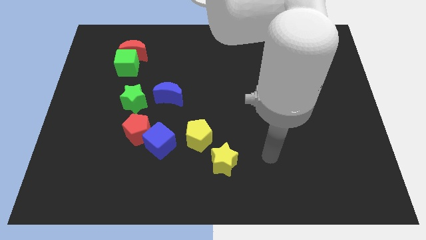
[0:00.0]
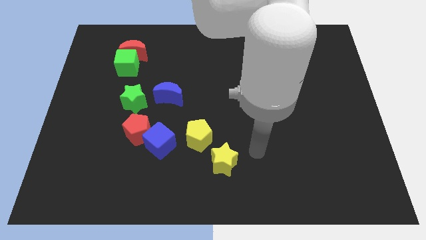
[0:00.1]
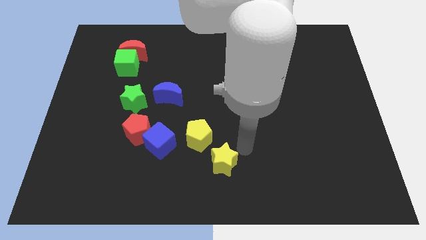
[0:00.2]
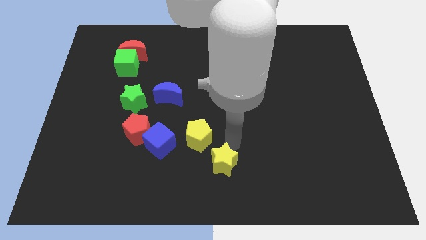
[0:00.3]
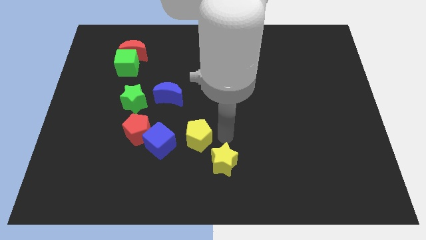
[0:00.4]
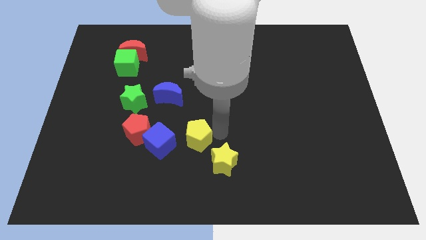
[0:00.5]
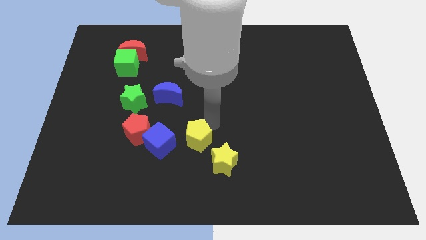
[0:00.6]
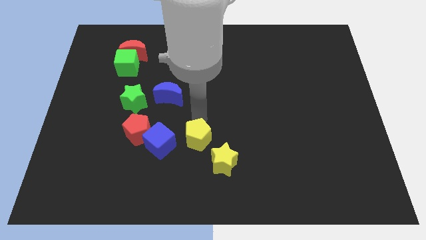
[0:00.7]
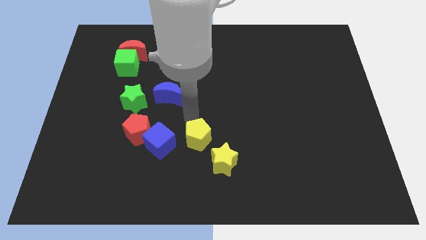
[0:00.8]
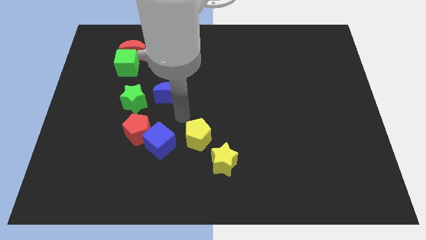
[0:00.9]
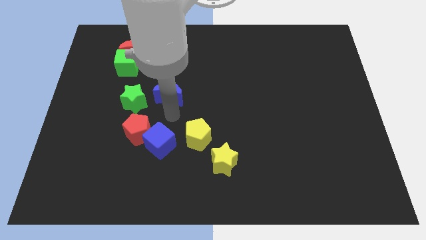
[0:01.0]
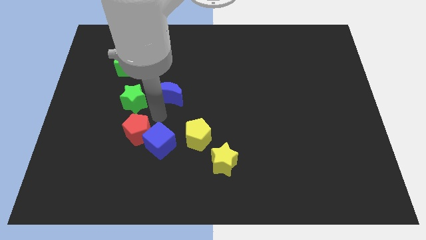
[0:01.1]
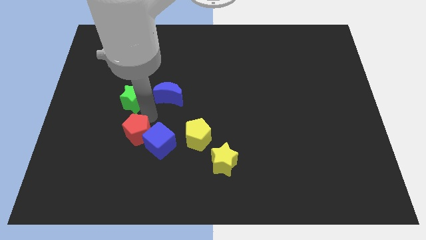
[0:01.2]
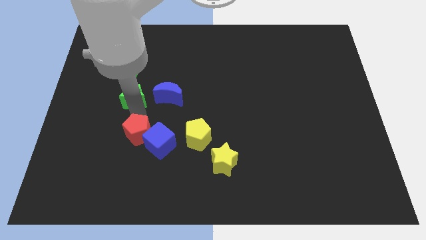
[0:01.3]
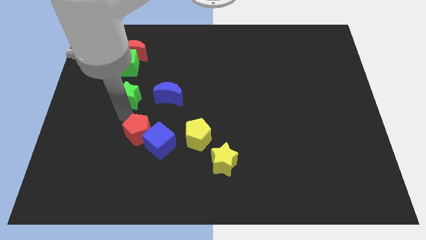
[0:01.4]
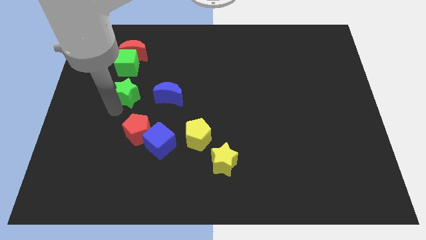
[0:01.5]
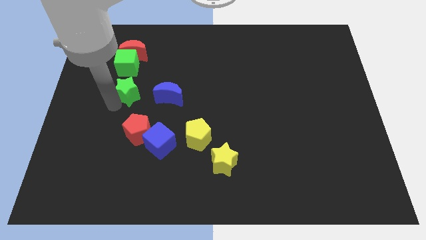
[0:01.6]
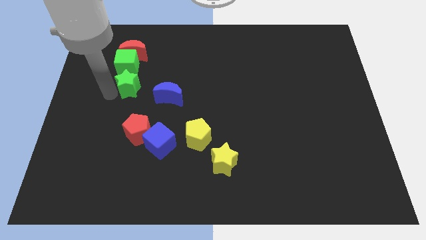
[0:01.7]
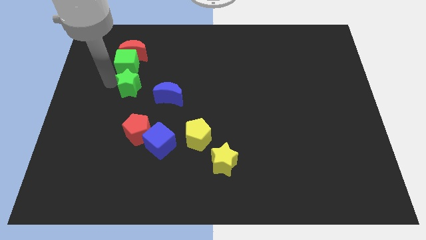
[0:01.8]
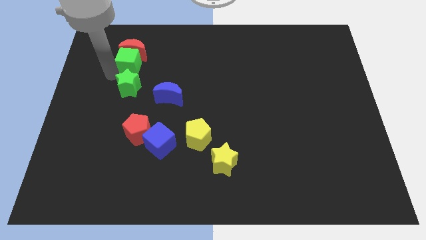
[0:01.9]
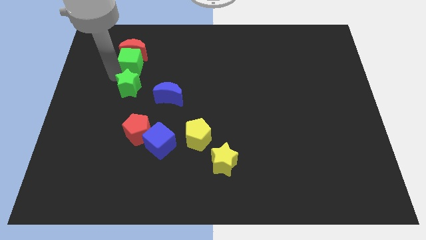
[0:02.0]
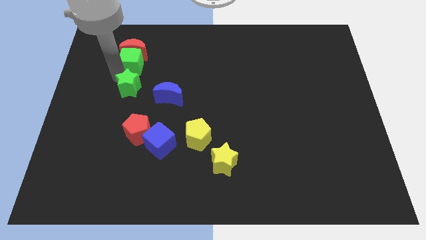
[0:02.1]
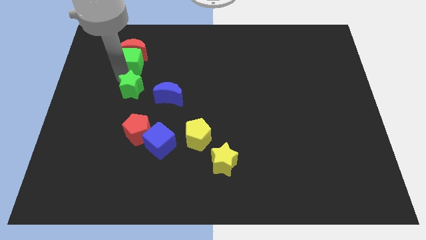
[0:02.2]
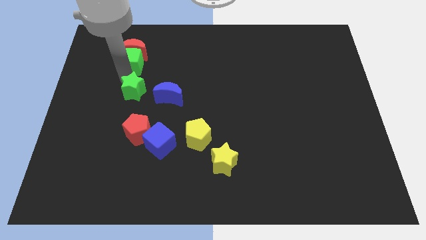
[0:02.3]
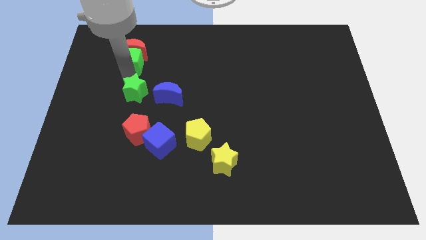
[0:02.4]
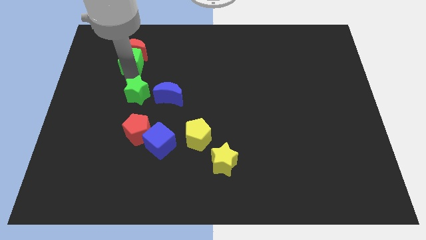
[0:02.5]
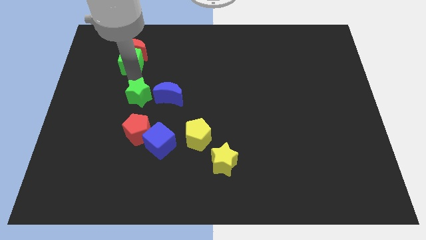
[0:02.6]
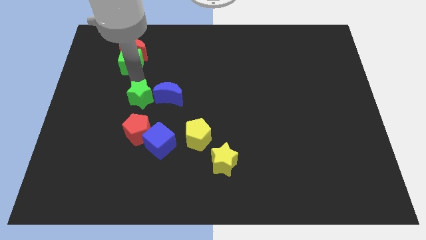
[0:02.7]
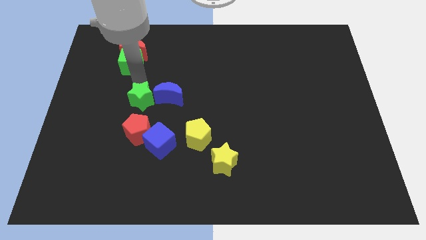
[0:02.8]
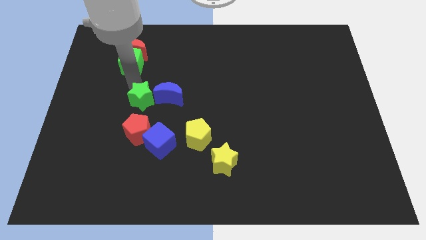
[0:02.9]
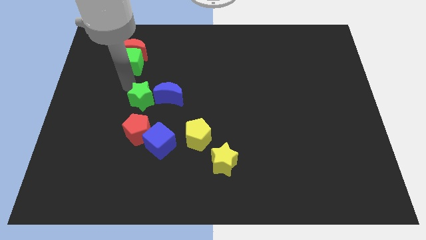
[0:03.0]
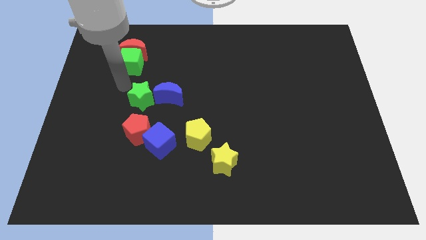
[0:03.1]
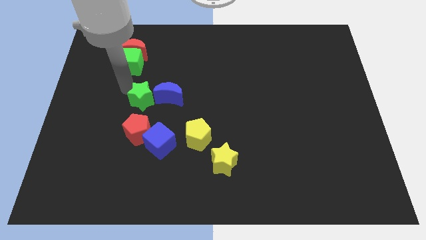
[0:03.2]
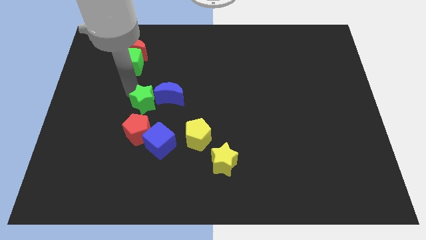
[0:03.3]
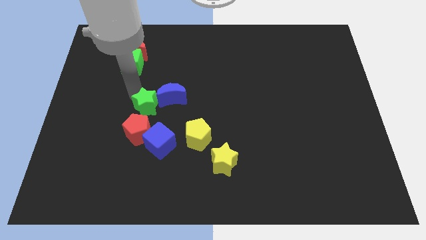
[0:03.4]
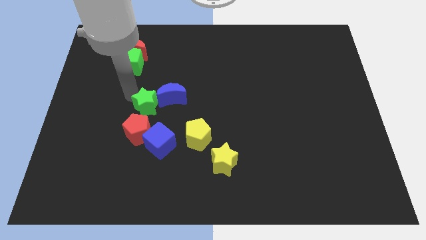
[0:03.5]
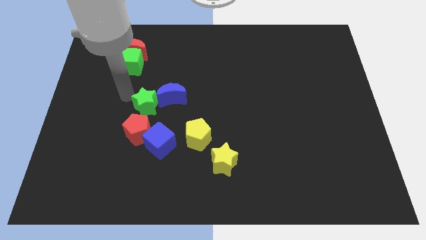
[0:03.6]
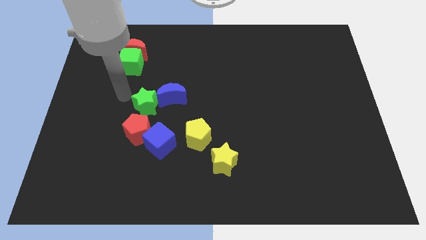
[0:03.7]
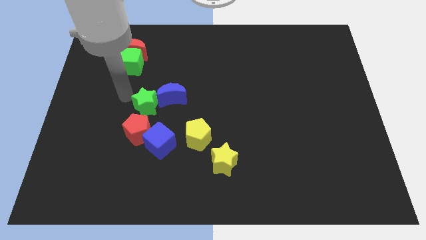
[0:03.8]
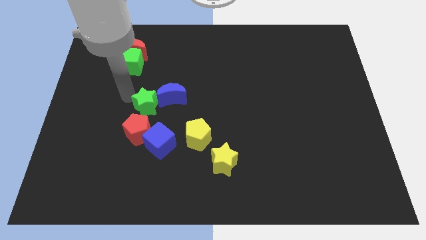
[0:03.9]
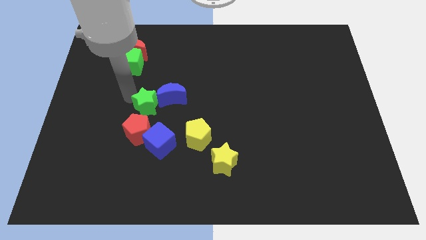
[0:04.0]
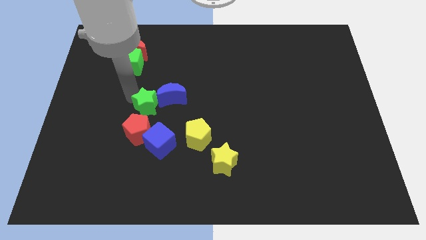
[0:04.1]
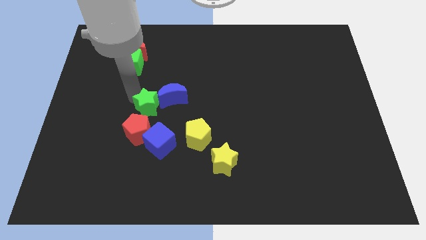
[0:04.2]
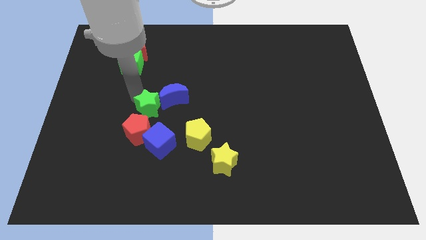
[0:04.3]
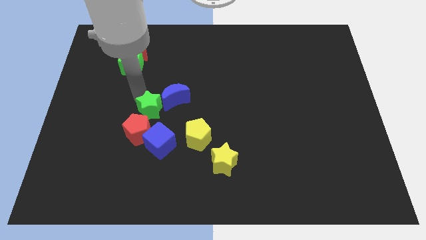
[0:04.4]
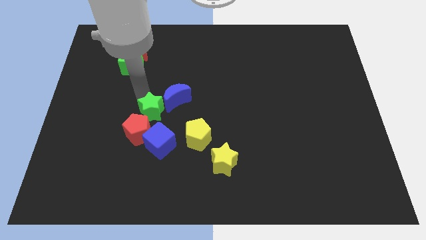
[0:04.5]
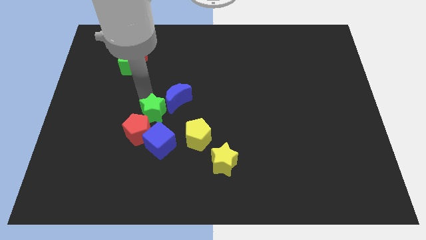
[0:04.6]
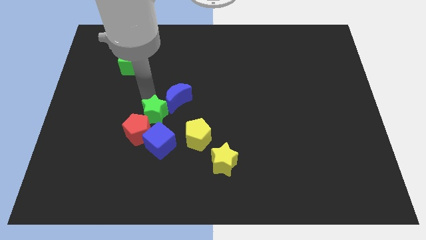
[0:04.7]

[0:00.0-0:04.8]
push the green star diagonally up and to the left of the yellow pentagon

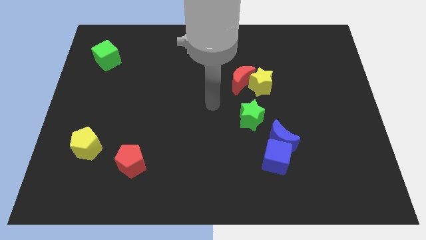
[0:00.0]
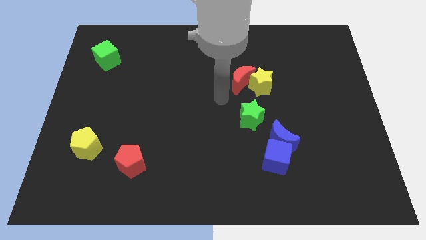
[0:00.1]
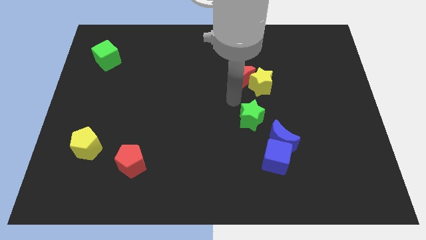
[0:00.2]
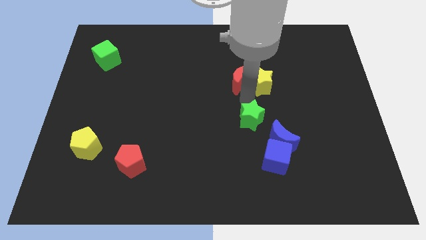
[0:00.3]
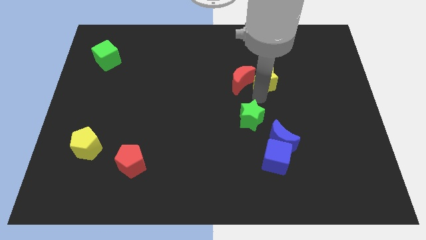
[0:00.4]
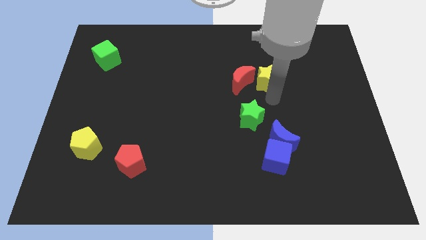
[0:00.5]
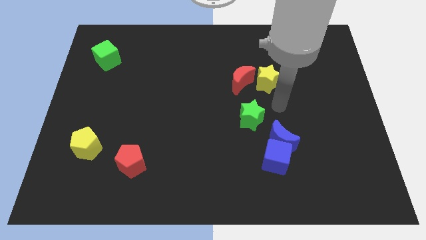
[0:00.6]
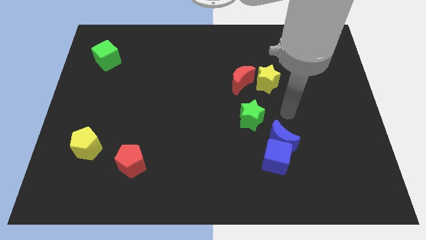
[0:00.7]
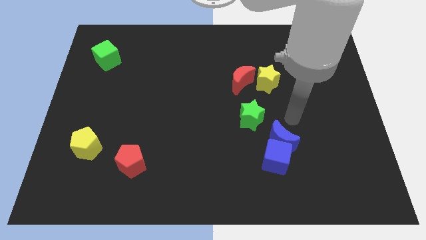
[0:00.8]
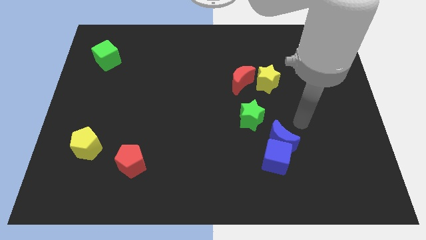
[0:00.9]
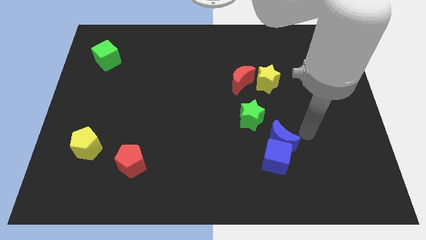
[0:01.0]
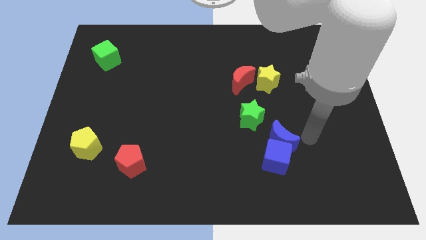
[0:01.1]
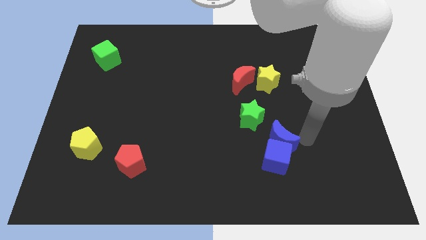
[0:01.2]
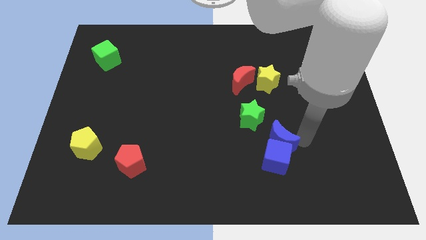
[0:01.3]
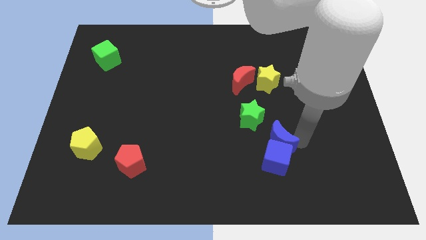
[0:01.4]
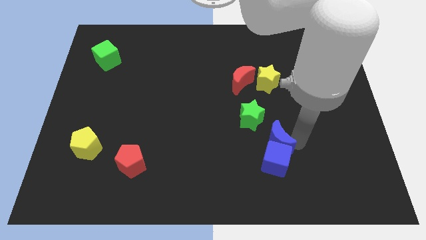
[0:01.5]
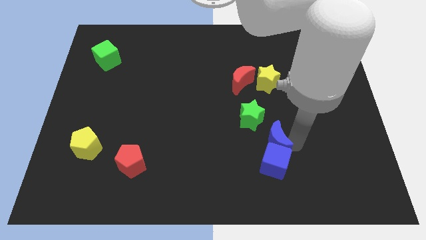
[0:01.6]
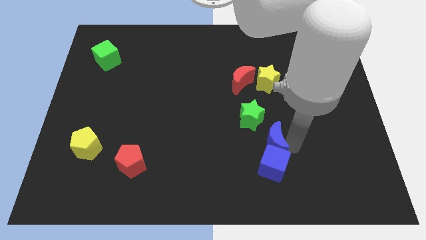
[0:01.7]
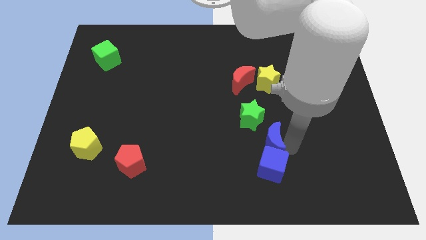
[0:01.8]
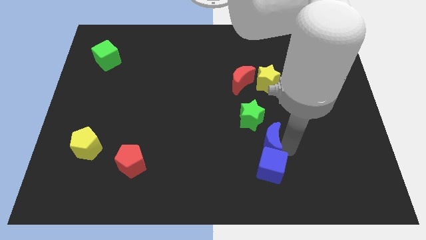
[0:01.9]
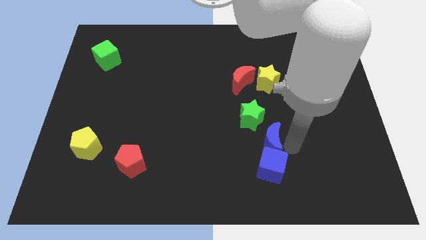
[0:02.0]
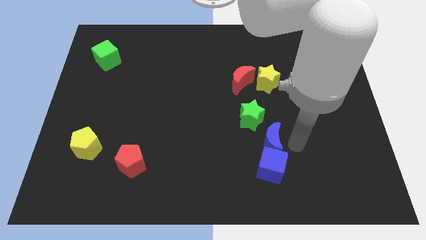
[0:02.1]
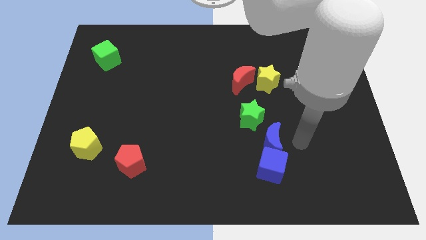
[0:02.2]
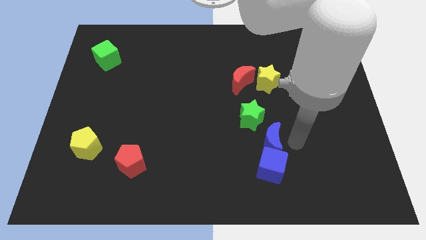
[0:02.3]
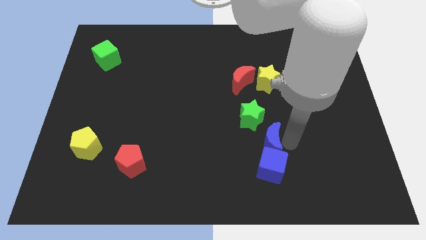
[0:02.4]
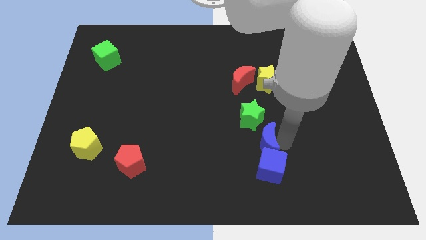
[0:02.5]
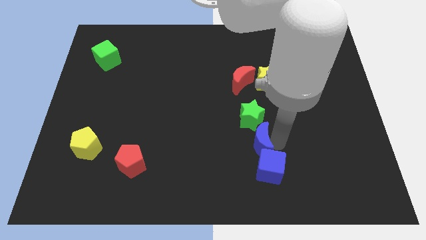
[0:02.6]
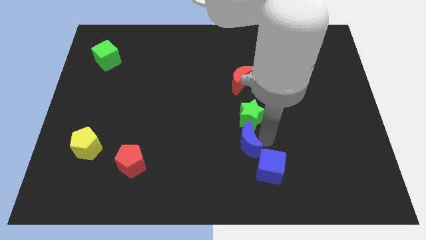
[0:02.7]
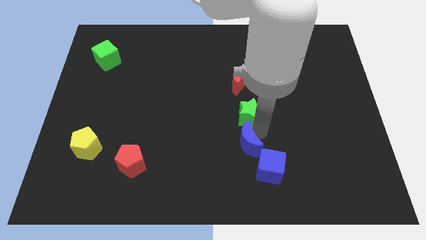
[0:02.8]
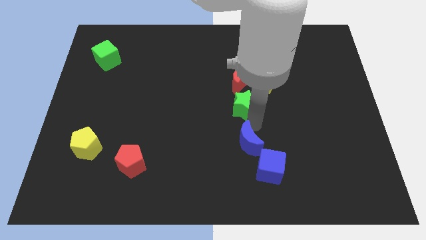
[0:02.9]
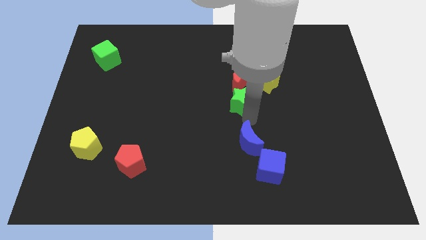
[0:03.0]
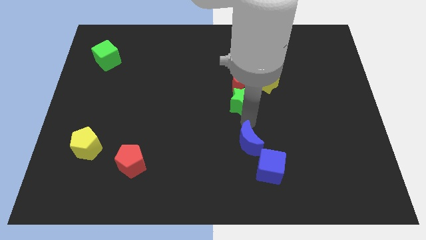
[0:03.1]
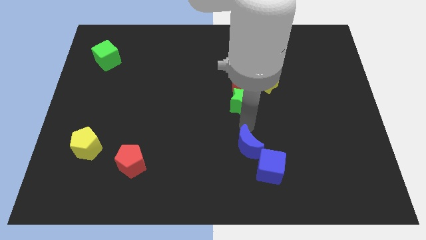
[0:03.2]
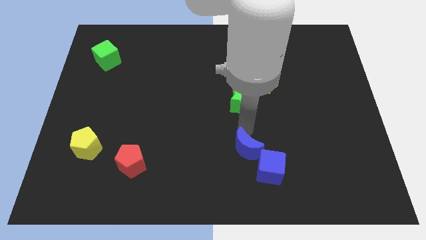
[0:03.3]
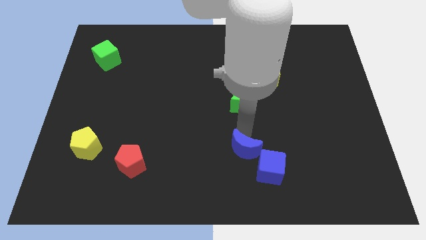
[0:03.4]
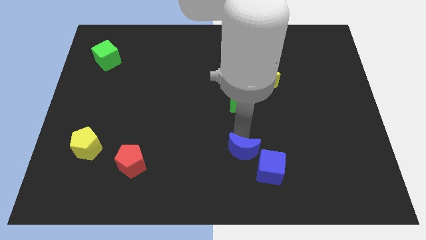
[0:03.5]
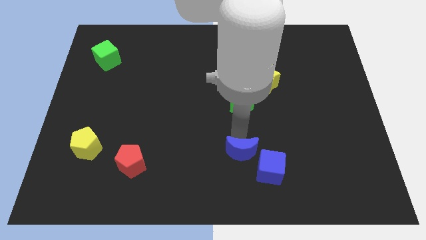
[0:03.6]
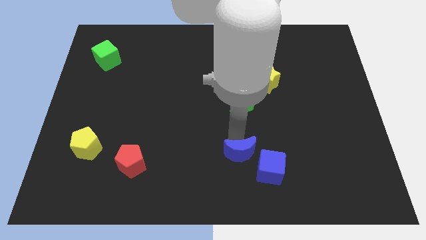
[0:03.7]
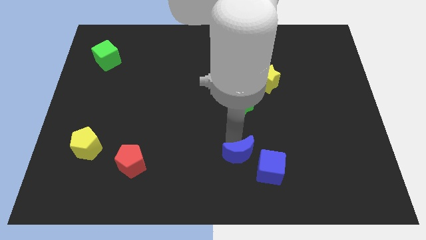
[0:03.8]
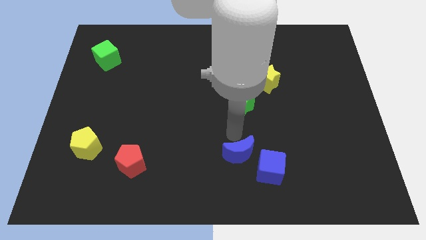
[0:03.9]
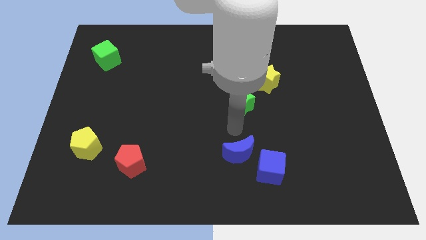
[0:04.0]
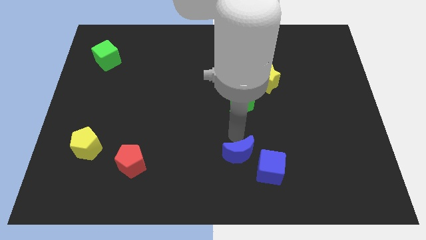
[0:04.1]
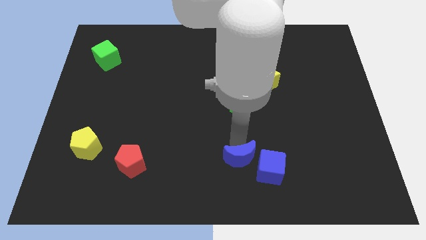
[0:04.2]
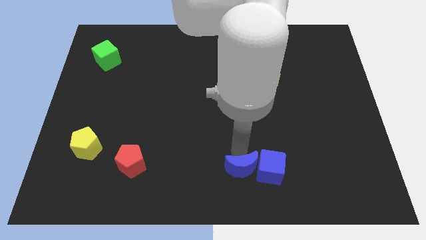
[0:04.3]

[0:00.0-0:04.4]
move the blue moon to the bottom left of the blue cube
